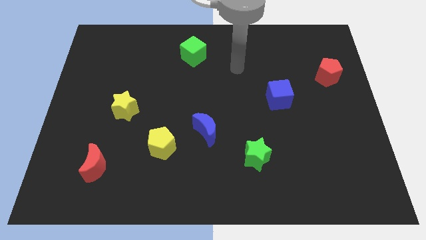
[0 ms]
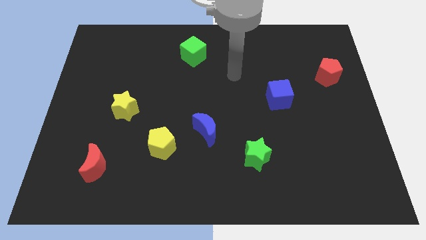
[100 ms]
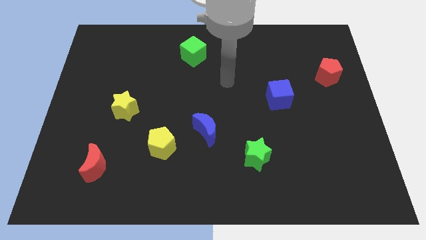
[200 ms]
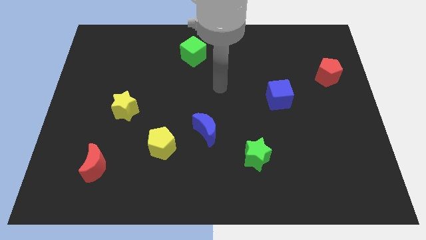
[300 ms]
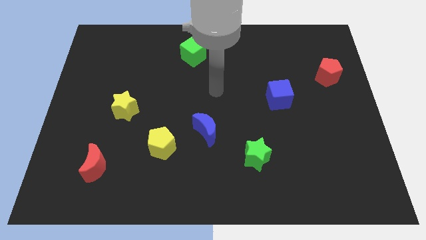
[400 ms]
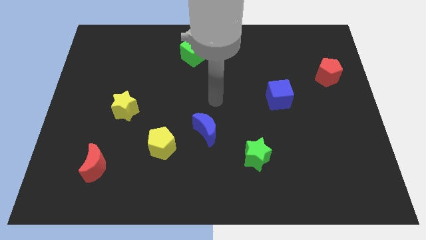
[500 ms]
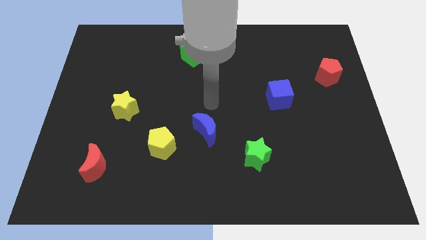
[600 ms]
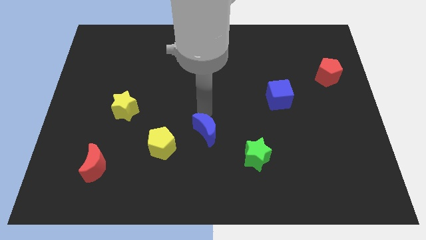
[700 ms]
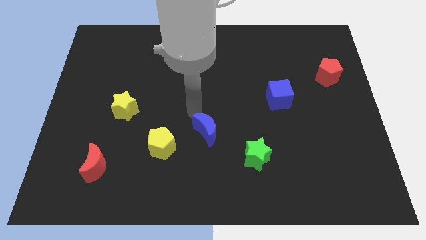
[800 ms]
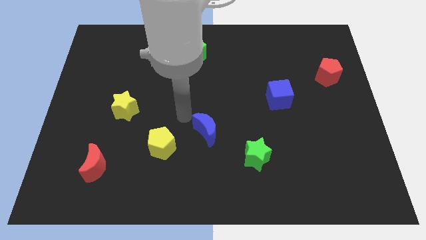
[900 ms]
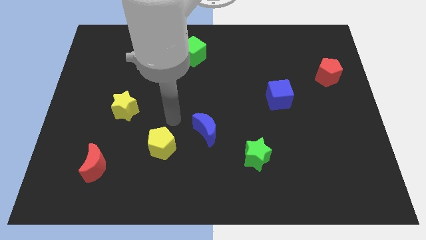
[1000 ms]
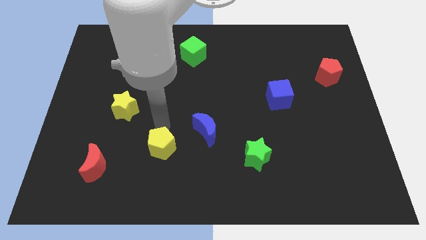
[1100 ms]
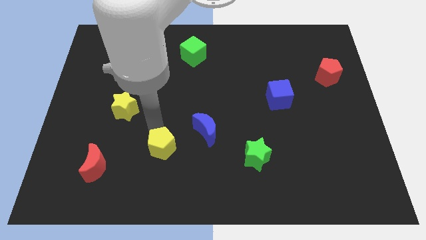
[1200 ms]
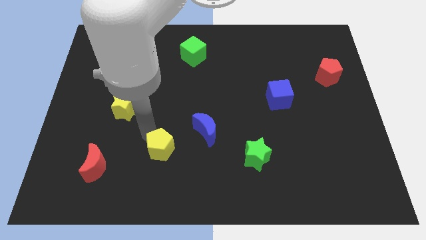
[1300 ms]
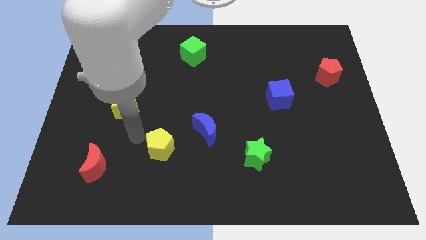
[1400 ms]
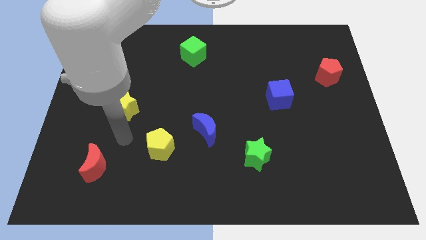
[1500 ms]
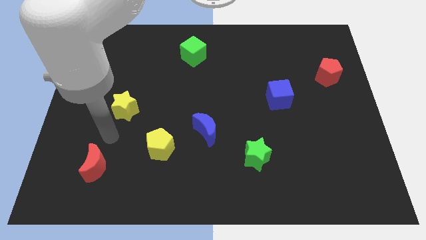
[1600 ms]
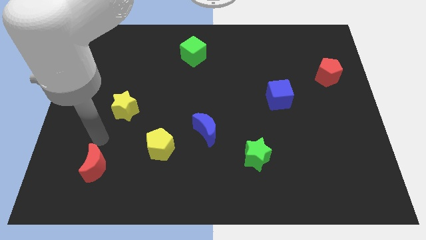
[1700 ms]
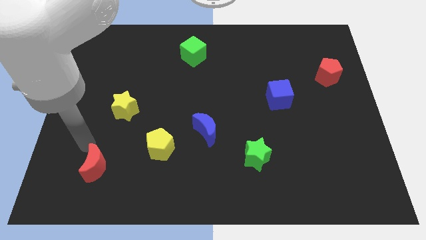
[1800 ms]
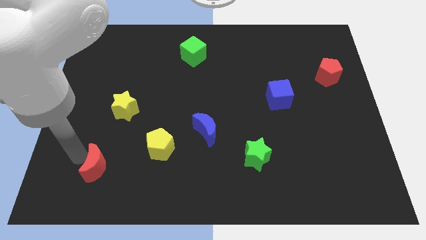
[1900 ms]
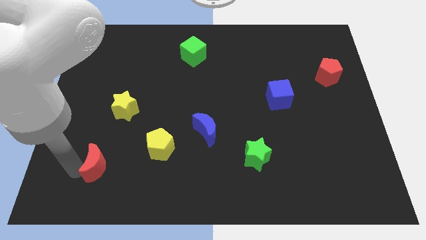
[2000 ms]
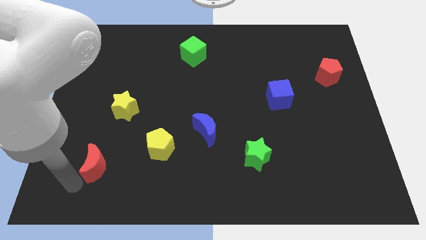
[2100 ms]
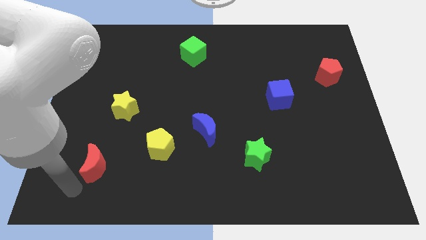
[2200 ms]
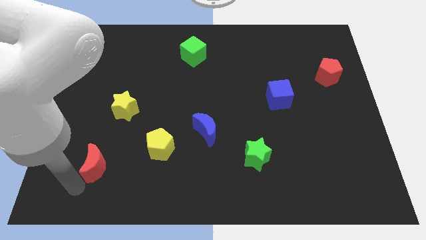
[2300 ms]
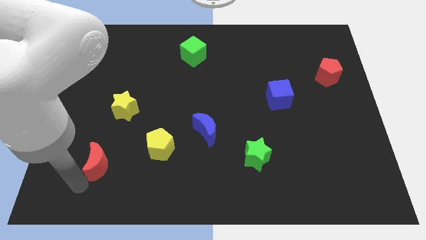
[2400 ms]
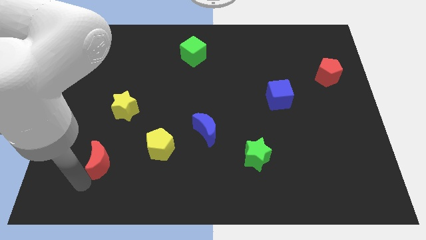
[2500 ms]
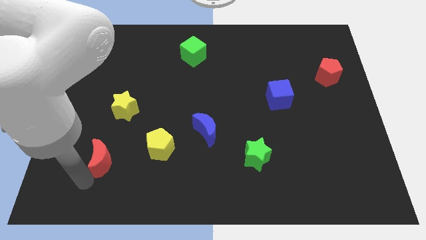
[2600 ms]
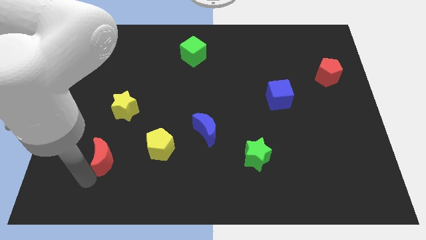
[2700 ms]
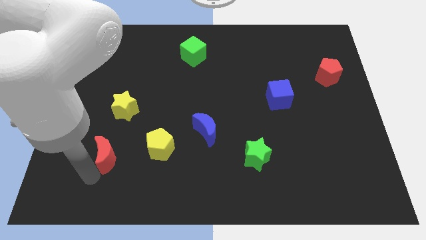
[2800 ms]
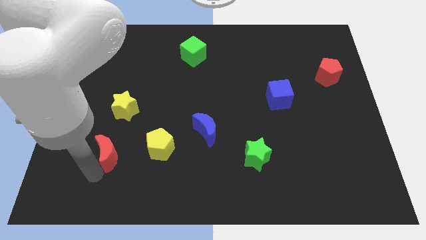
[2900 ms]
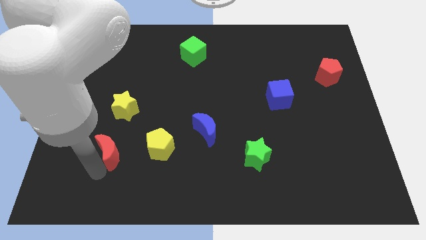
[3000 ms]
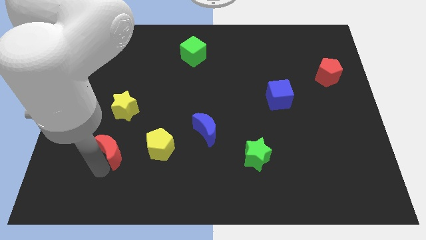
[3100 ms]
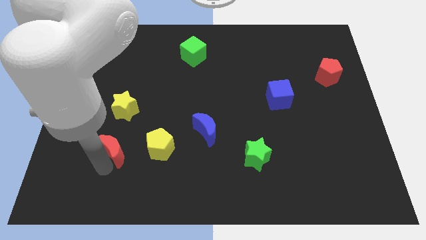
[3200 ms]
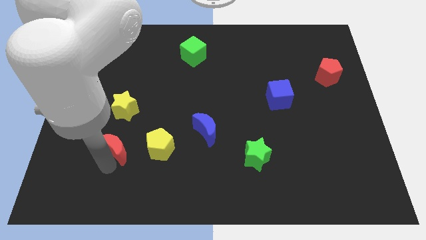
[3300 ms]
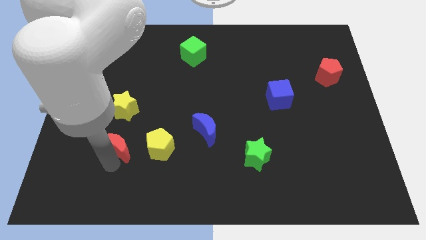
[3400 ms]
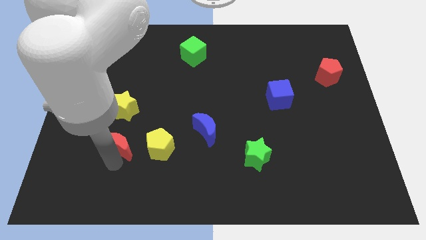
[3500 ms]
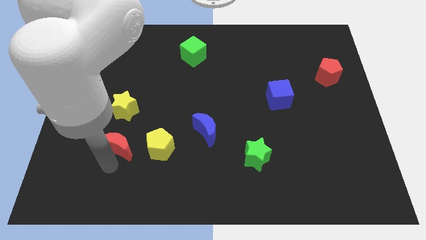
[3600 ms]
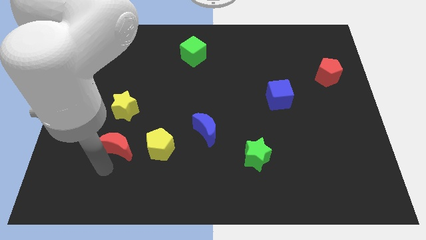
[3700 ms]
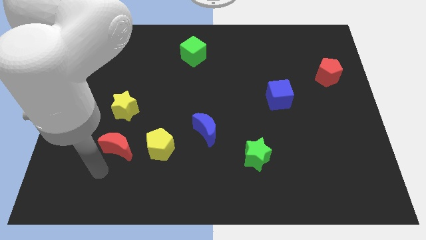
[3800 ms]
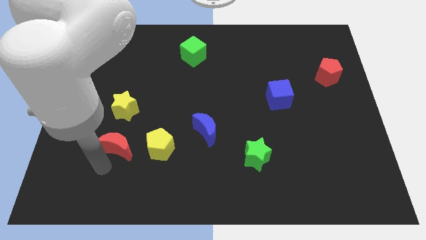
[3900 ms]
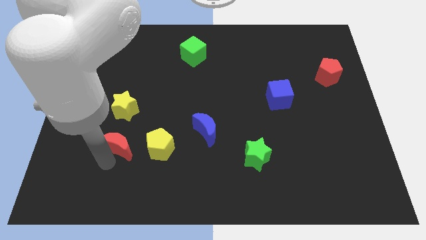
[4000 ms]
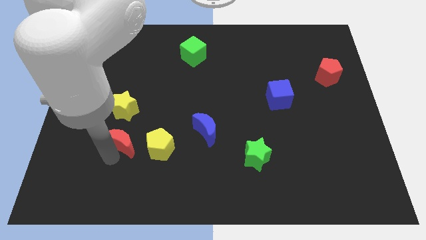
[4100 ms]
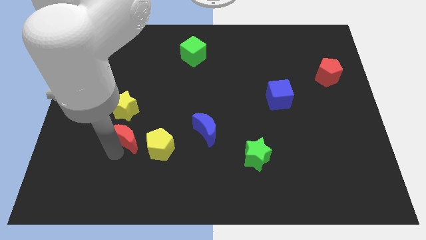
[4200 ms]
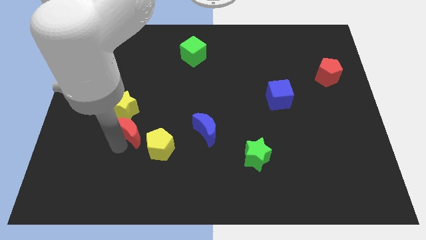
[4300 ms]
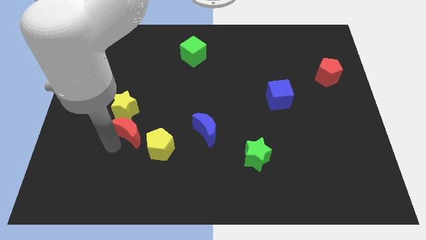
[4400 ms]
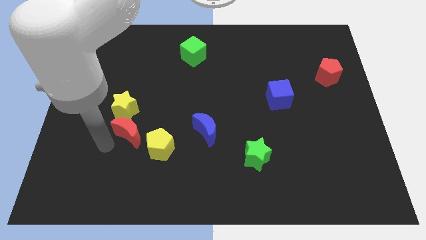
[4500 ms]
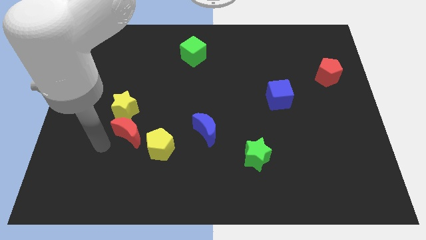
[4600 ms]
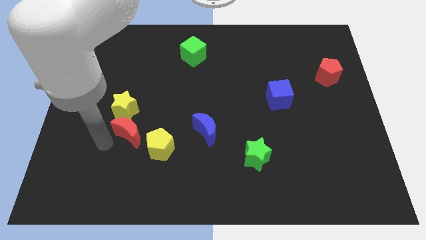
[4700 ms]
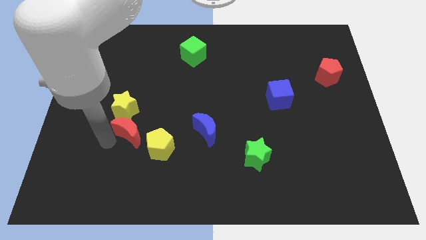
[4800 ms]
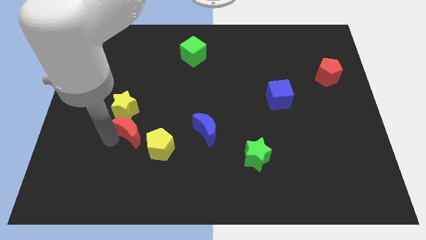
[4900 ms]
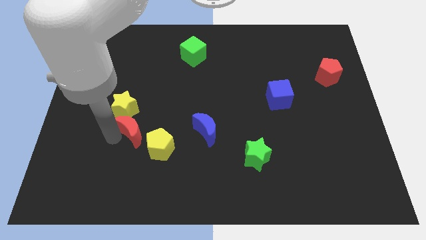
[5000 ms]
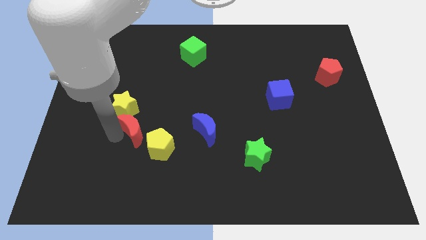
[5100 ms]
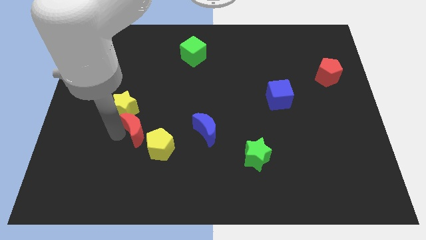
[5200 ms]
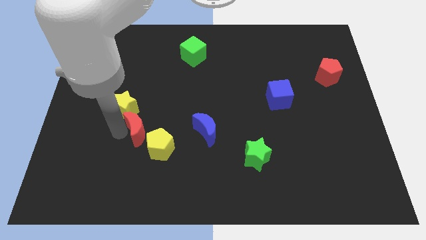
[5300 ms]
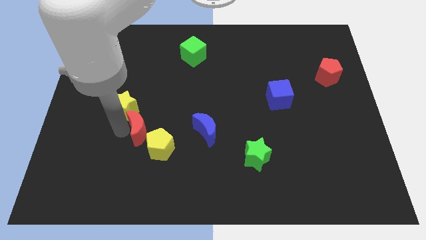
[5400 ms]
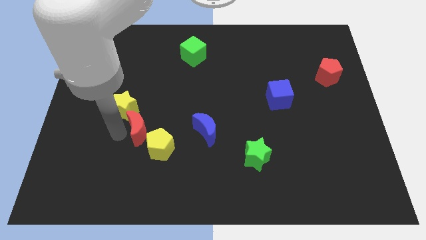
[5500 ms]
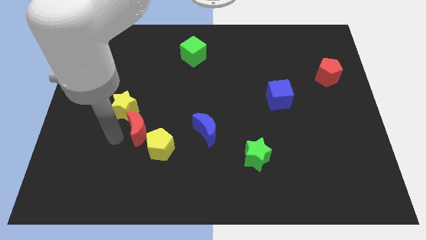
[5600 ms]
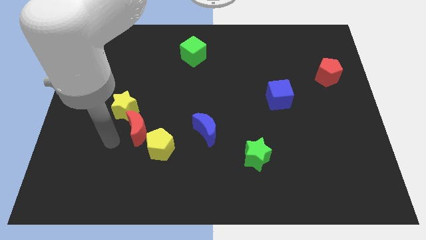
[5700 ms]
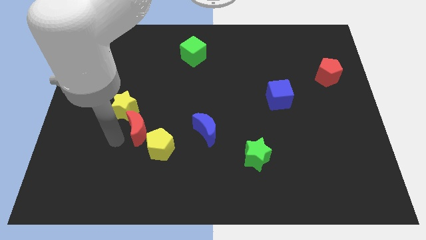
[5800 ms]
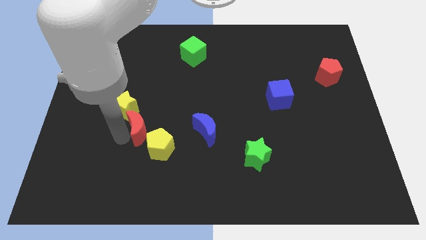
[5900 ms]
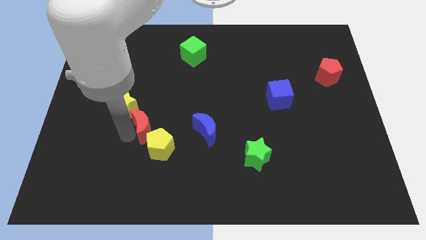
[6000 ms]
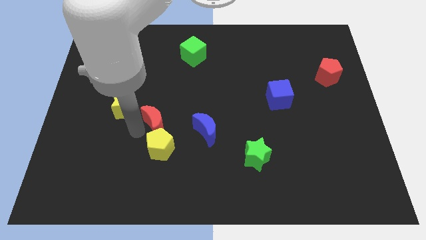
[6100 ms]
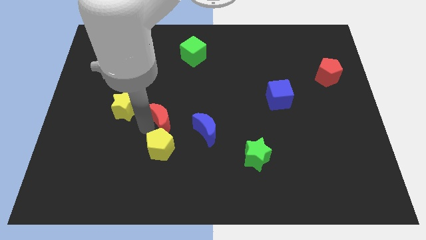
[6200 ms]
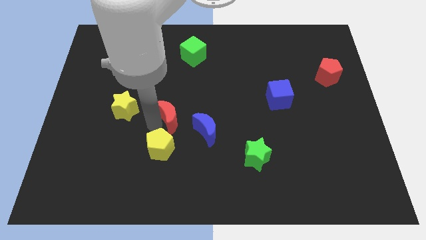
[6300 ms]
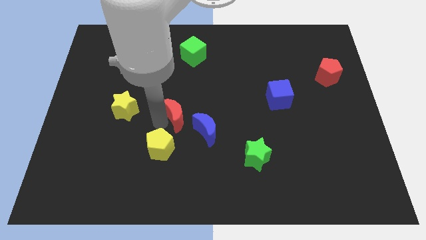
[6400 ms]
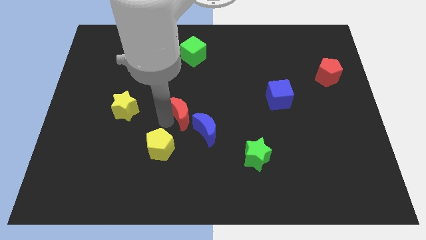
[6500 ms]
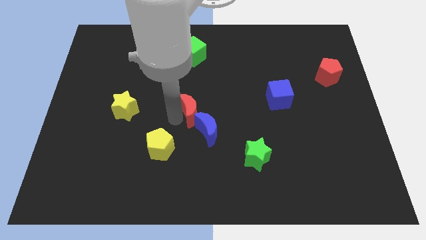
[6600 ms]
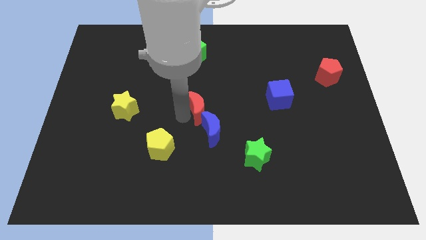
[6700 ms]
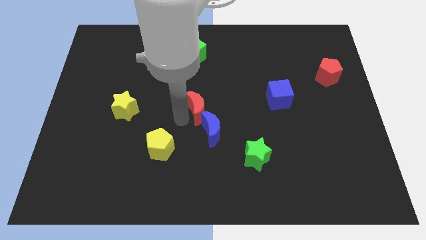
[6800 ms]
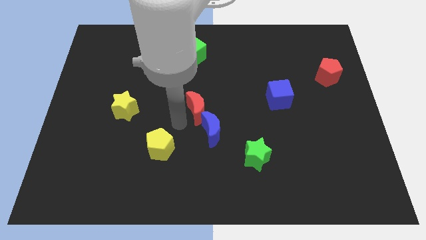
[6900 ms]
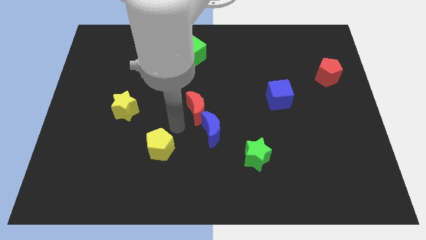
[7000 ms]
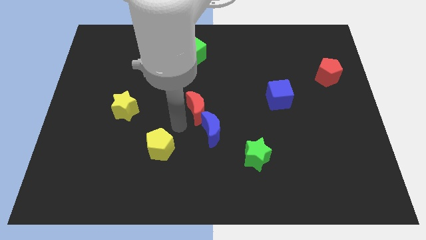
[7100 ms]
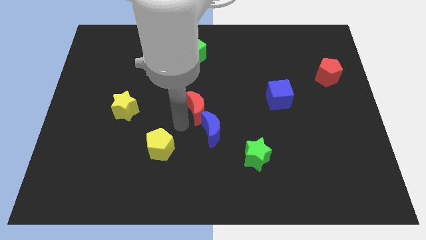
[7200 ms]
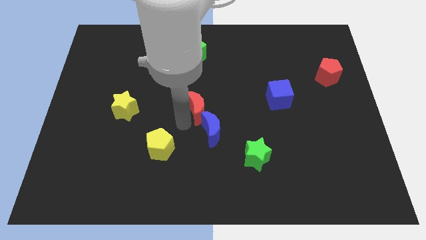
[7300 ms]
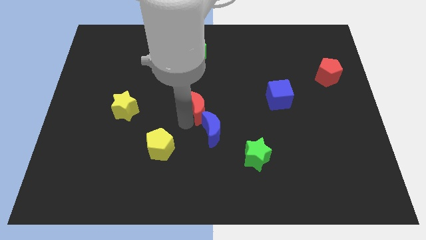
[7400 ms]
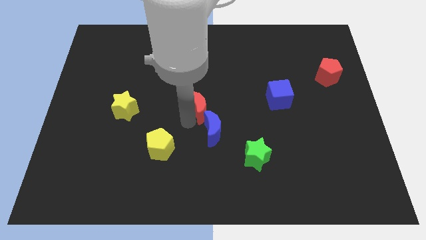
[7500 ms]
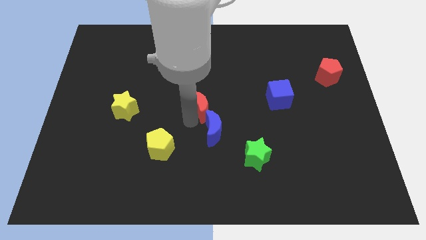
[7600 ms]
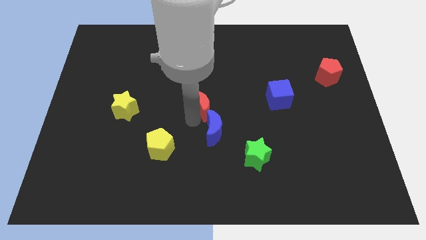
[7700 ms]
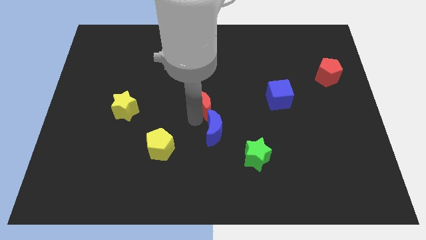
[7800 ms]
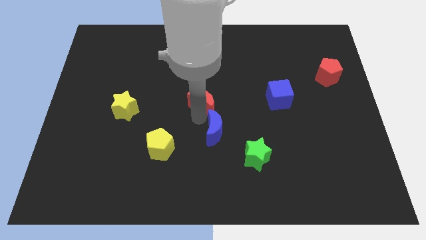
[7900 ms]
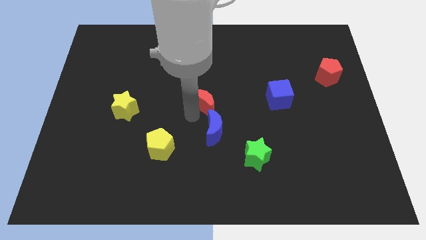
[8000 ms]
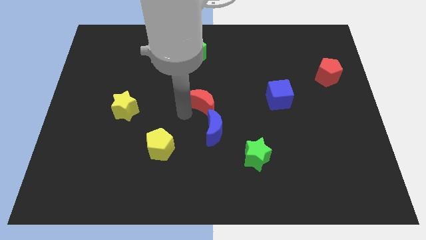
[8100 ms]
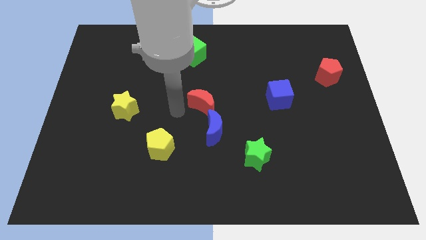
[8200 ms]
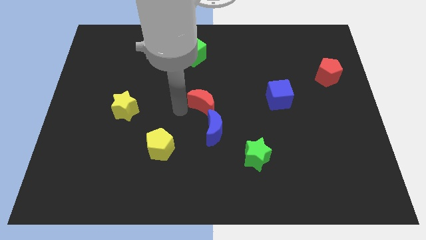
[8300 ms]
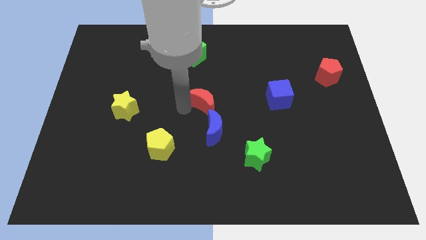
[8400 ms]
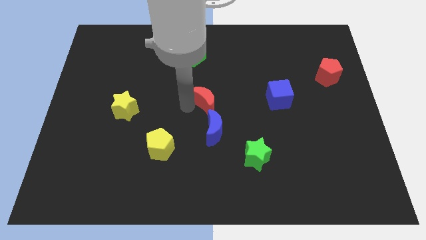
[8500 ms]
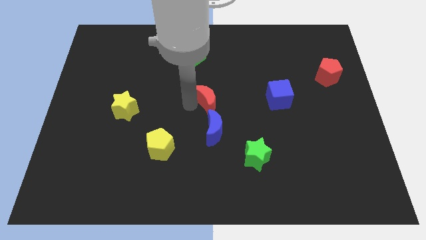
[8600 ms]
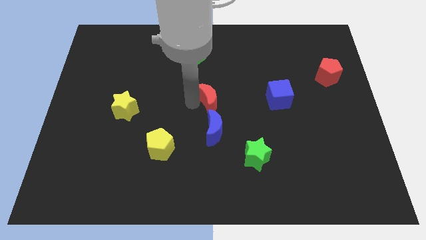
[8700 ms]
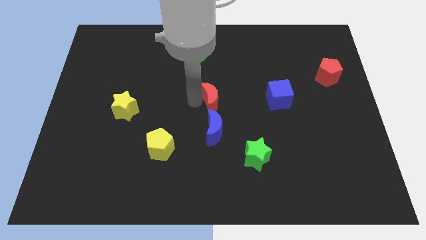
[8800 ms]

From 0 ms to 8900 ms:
move the red moon to the left side of the blue cube
